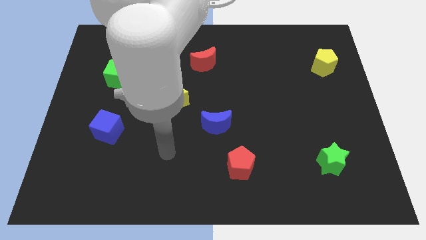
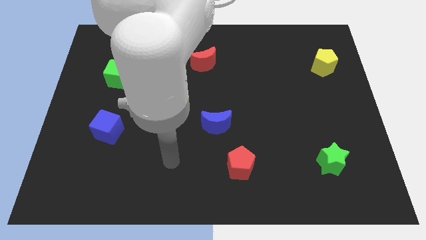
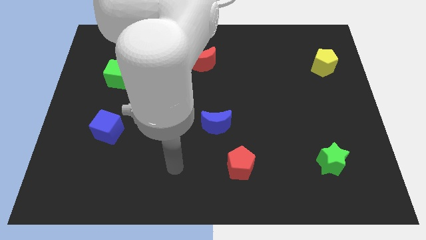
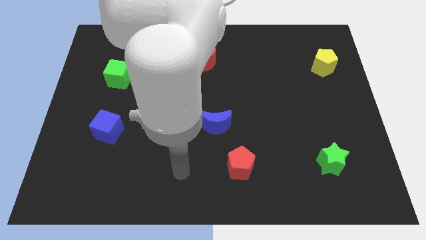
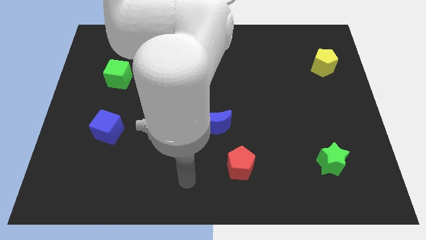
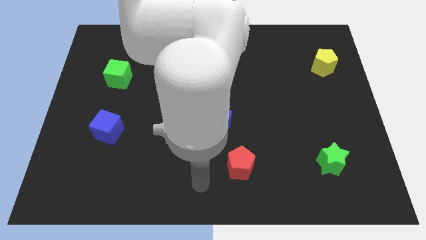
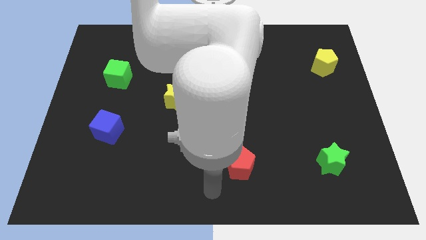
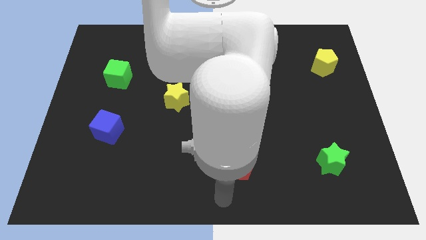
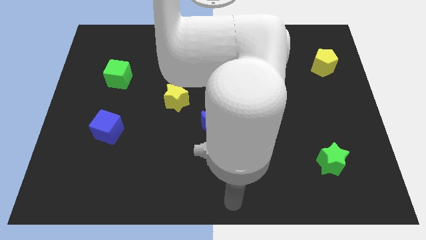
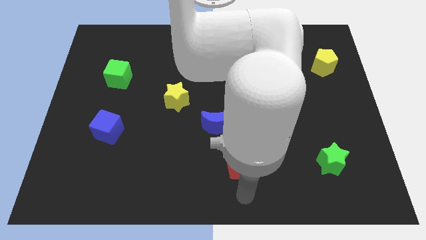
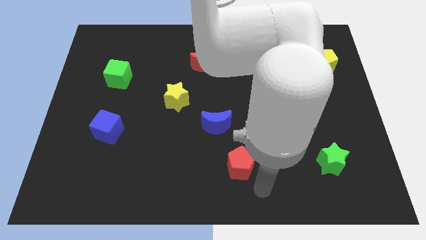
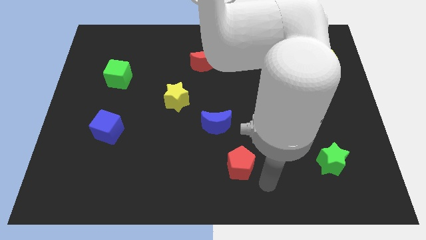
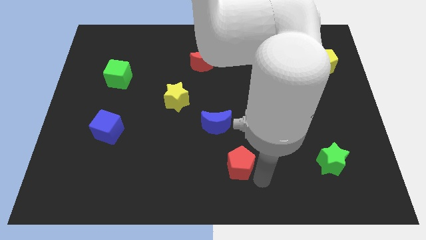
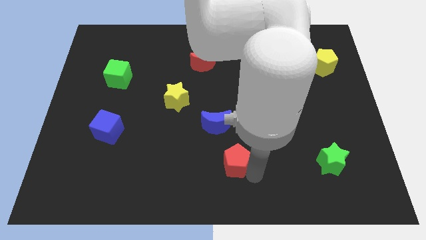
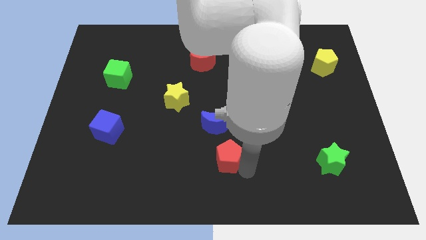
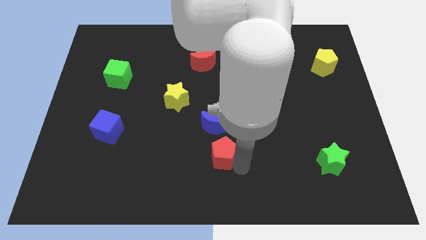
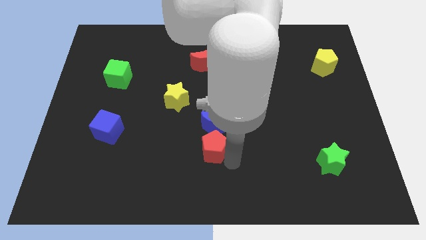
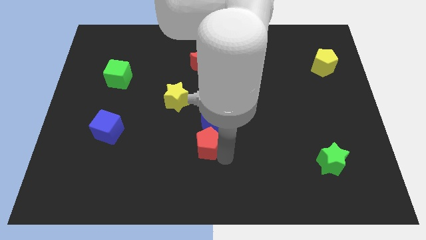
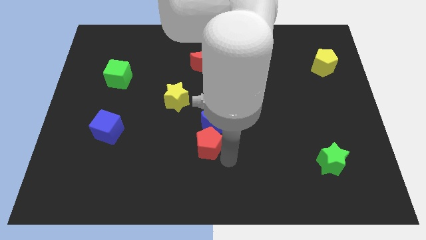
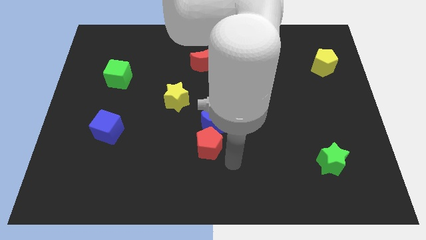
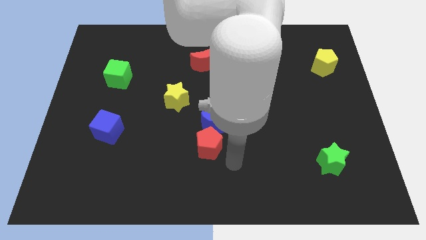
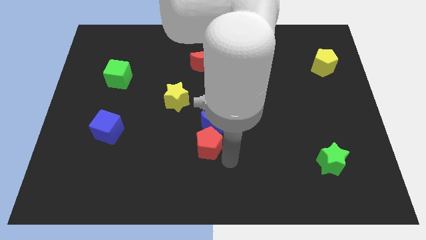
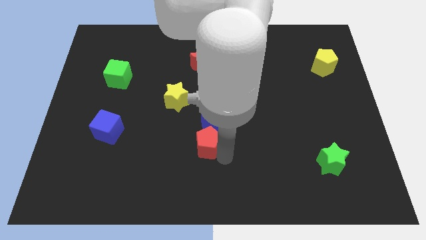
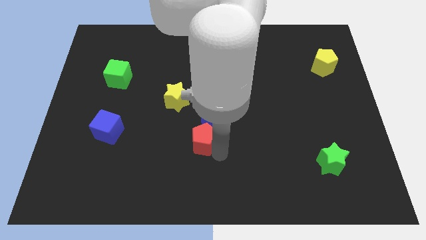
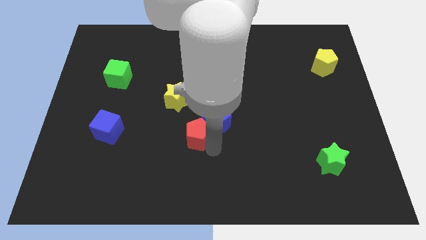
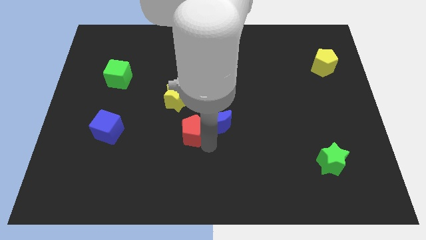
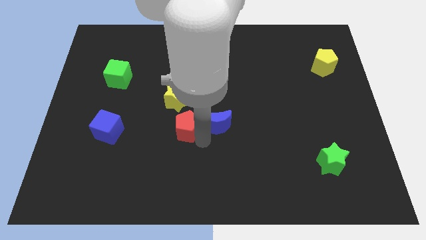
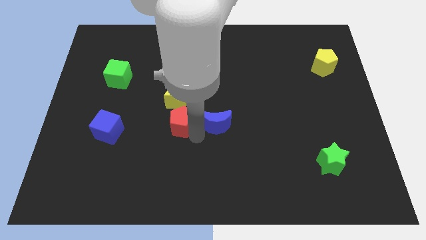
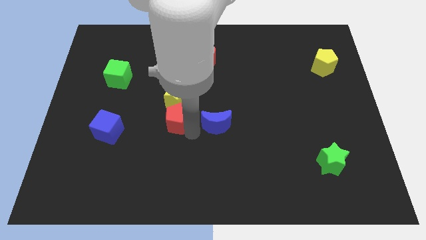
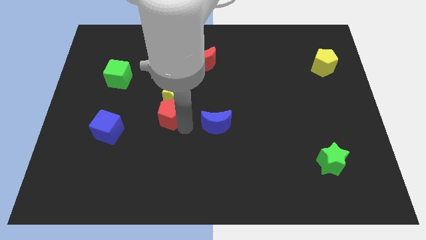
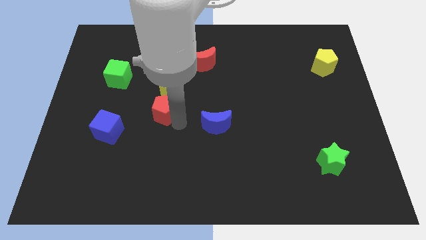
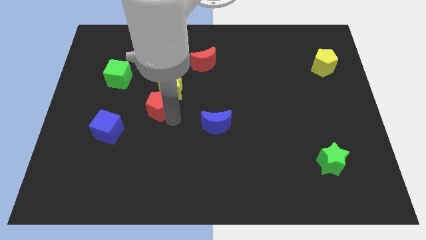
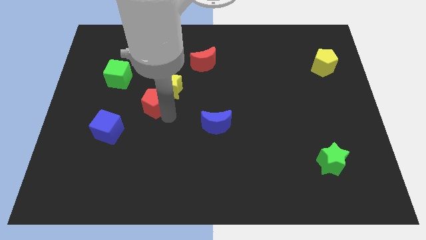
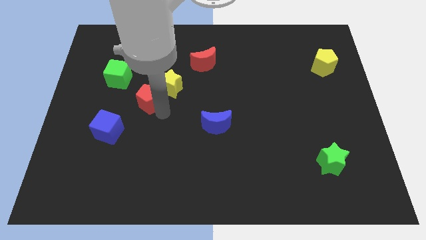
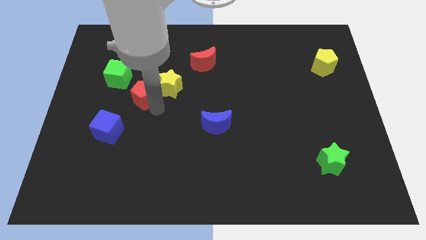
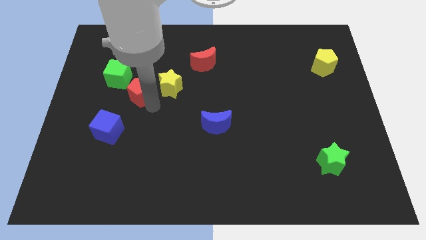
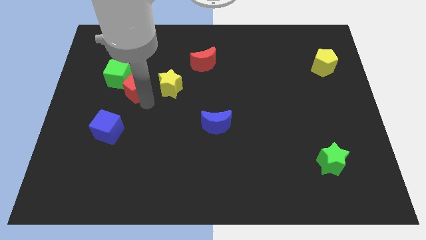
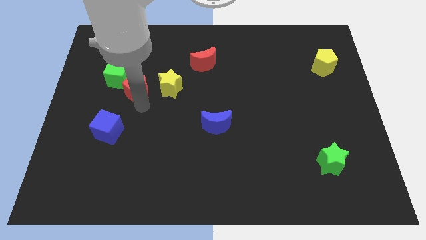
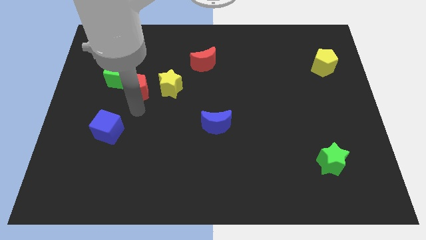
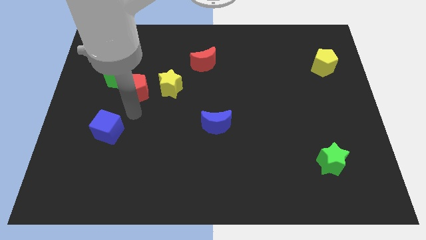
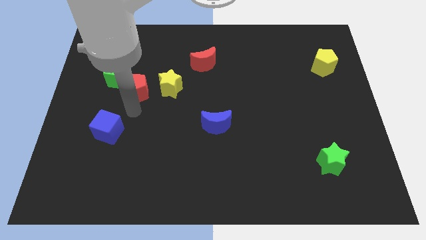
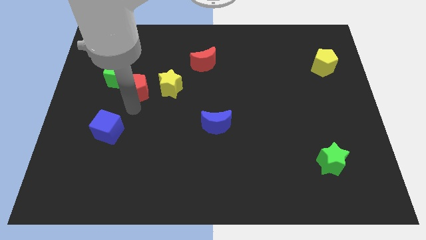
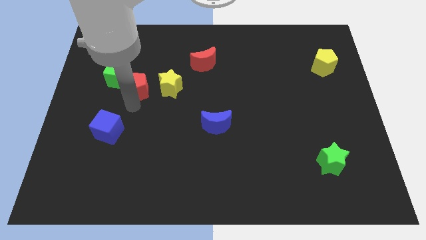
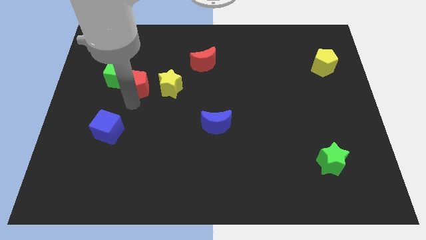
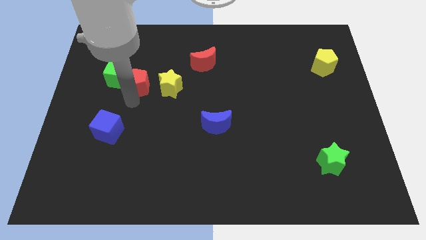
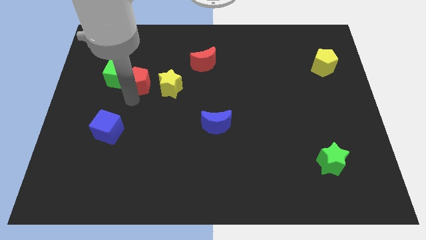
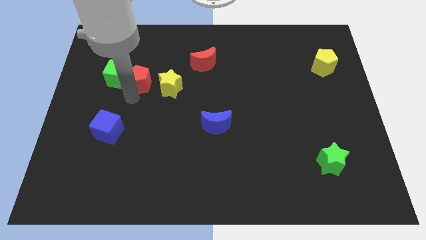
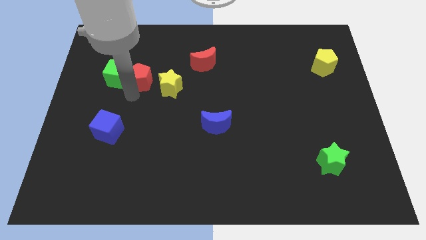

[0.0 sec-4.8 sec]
slide the red pentagon diagonally up and to the right of the green cube

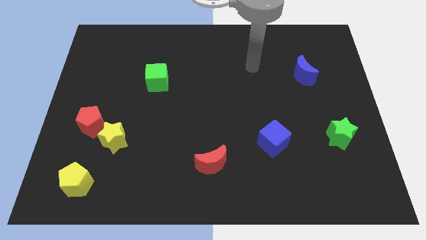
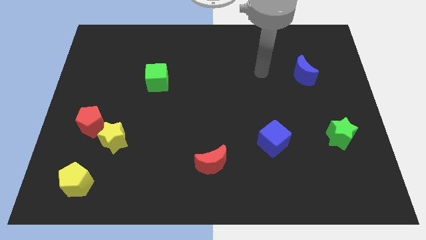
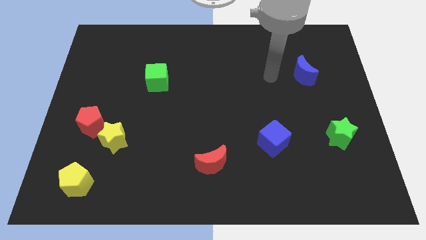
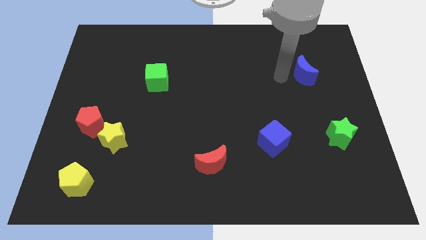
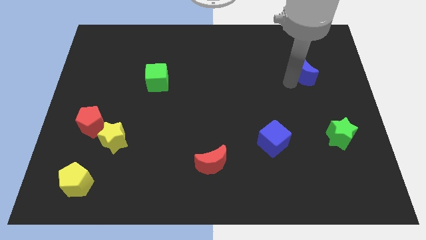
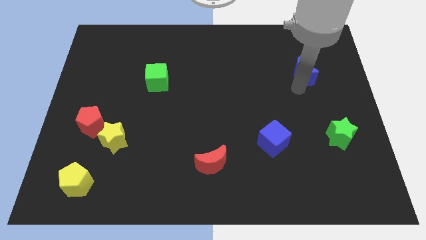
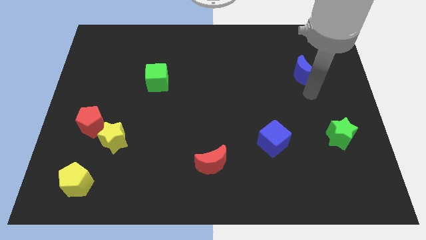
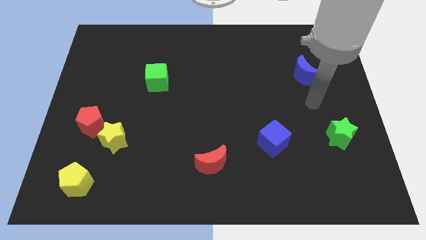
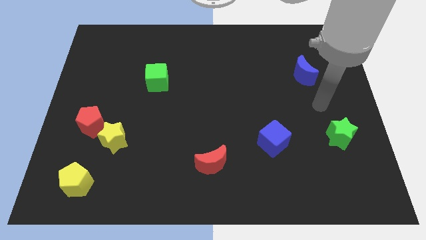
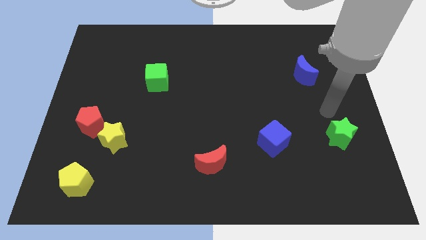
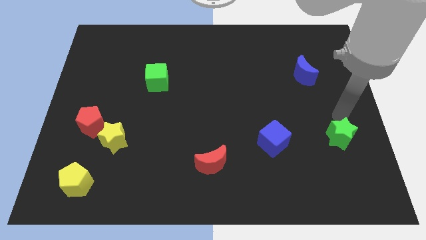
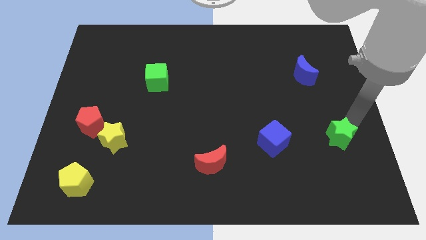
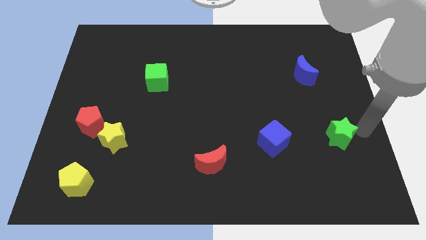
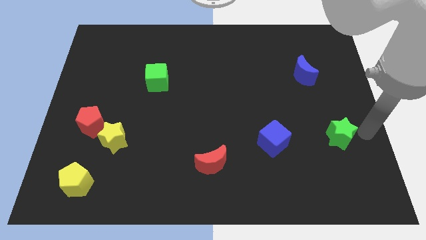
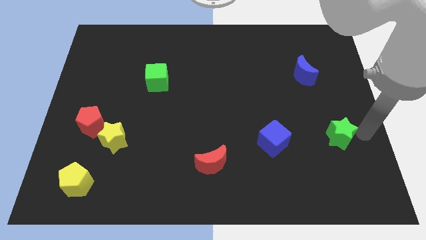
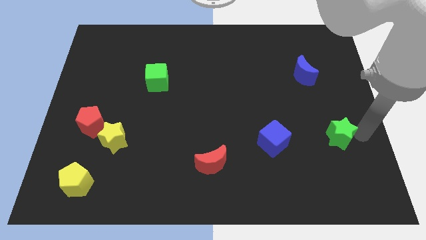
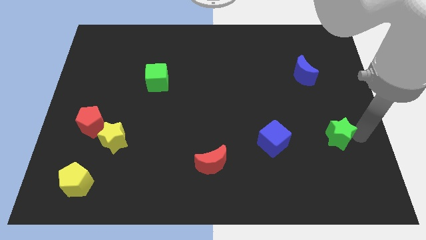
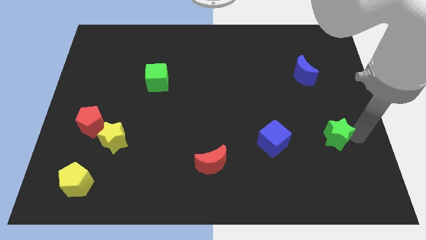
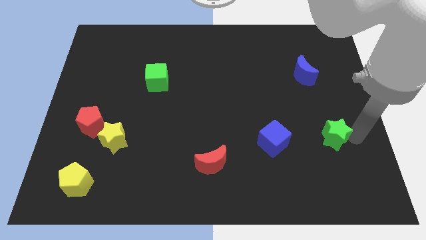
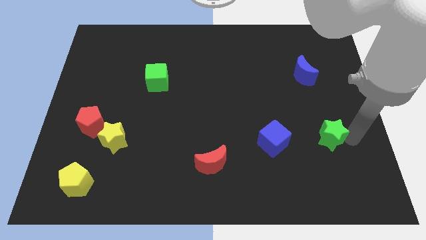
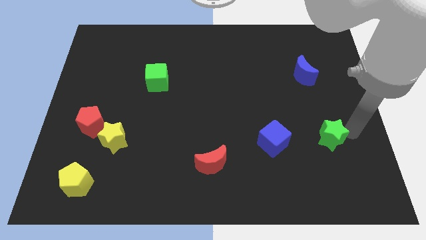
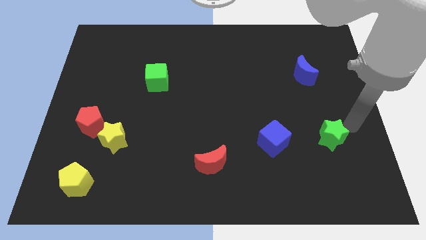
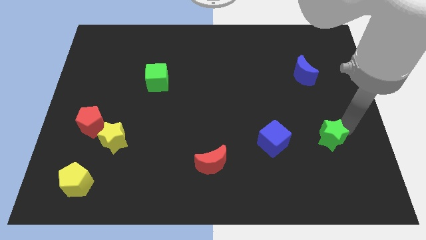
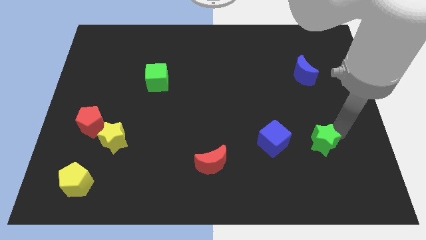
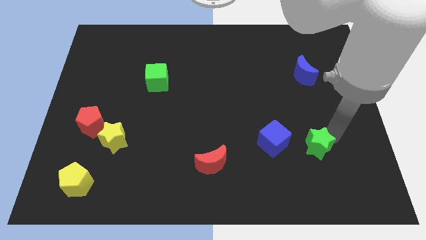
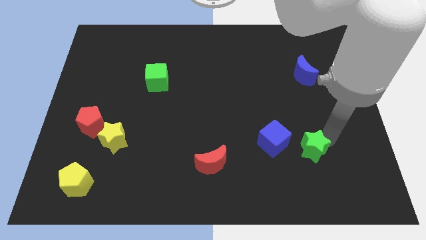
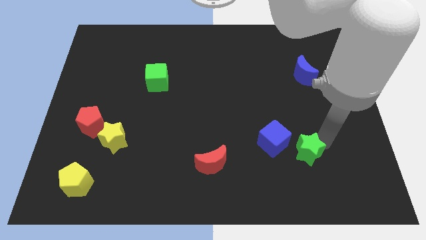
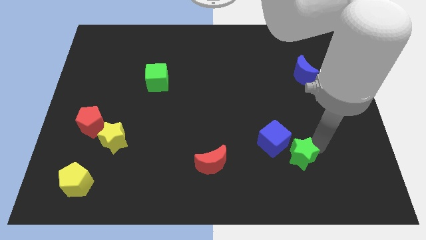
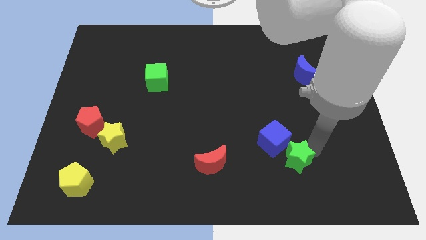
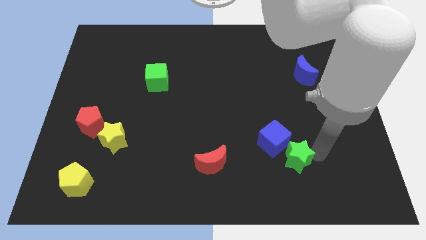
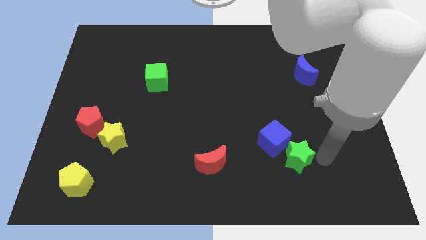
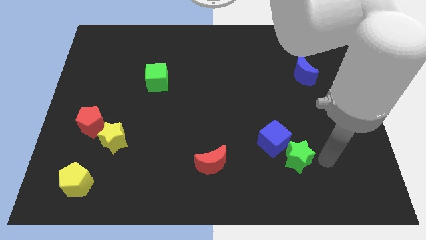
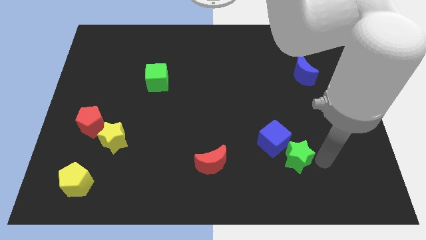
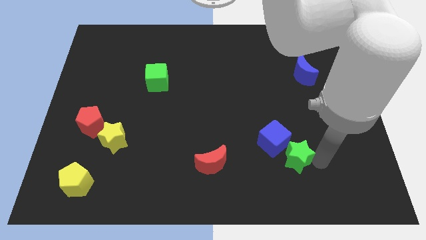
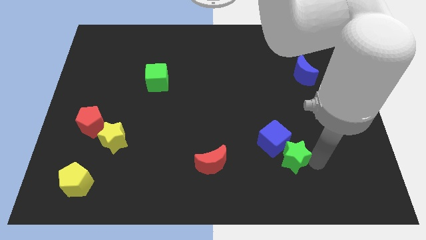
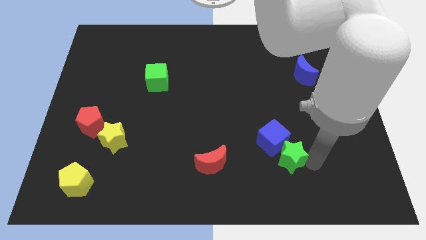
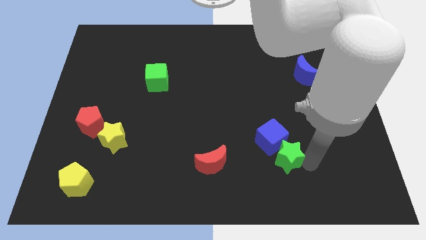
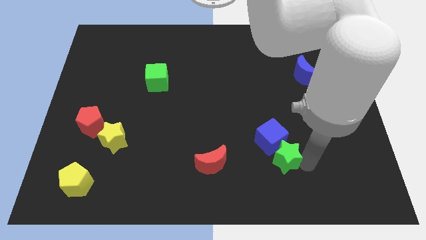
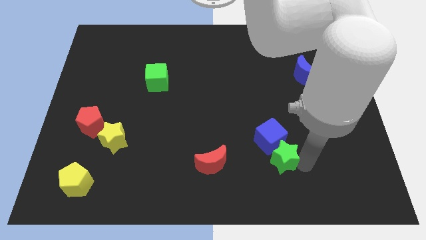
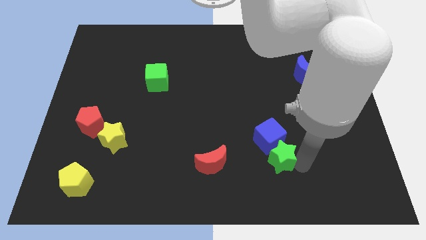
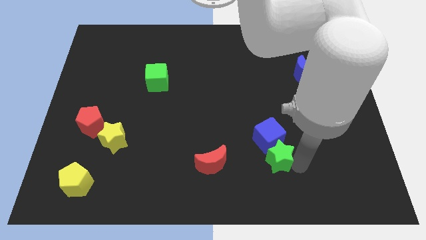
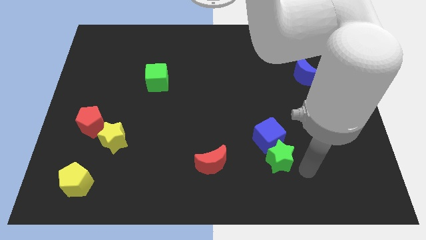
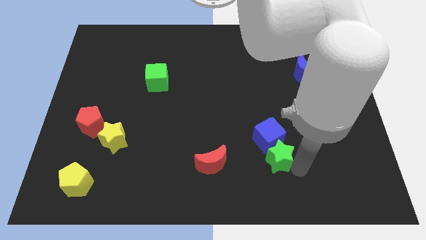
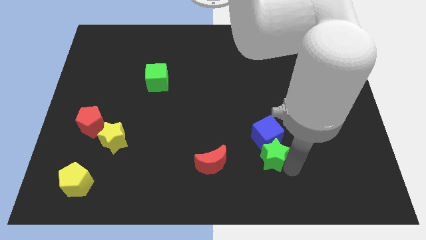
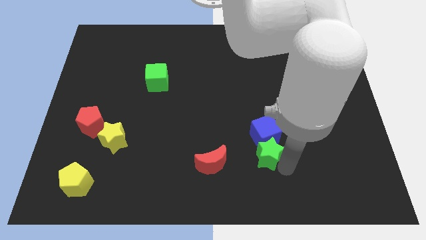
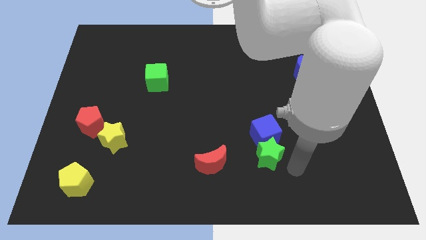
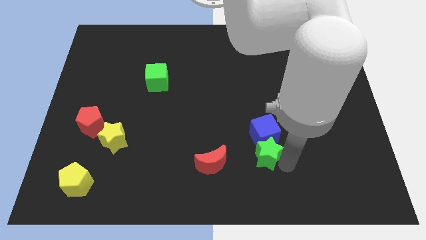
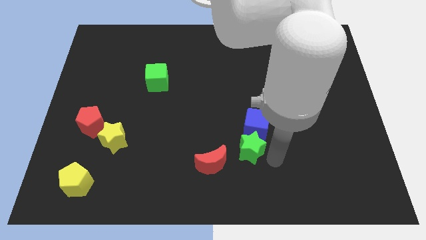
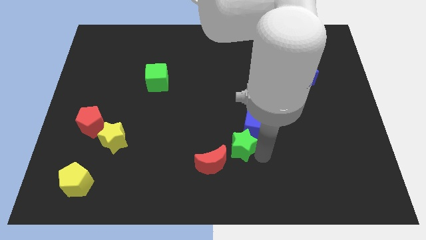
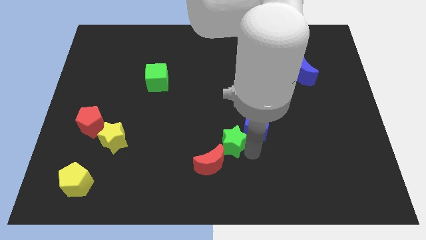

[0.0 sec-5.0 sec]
push the green star to the left side of the blue cube
